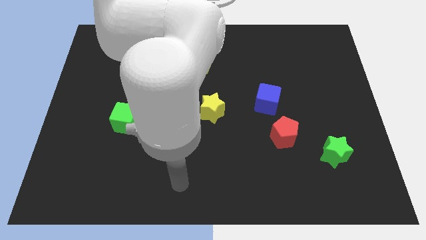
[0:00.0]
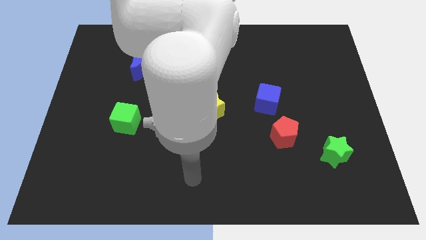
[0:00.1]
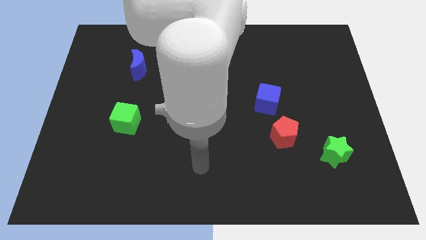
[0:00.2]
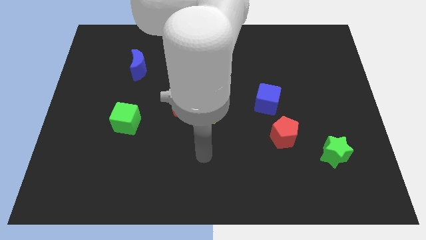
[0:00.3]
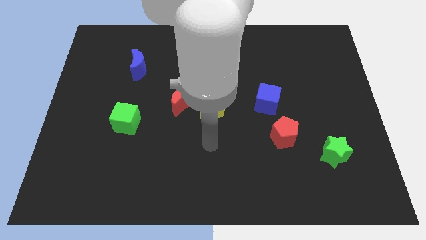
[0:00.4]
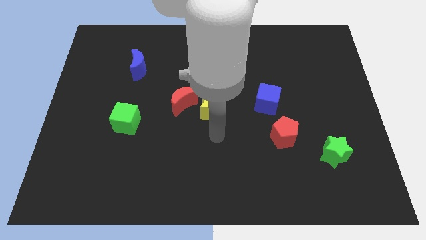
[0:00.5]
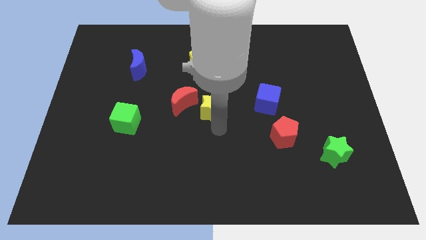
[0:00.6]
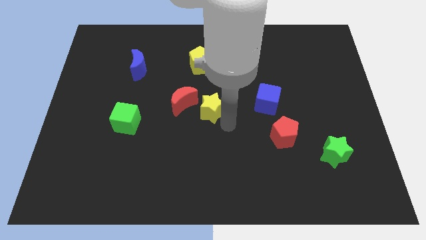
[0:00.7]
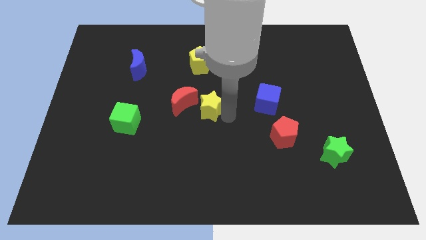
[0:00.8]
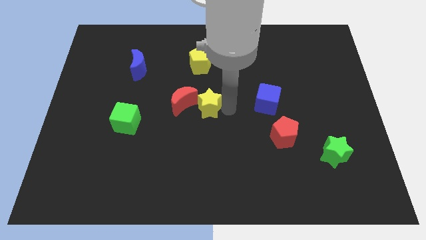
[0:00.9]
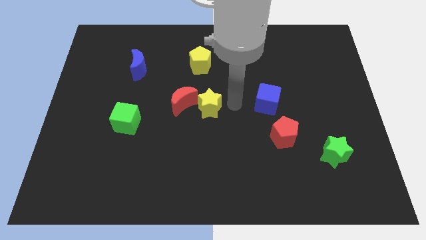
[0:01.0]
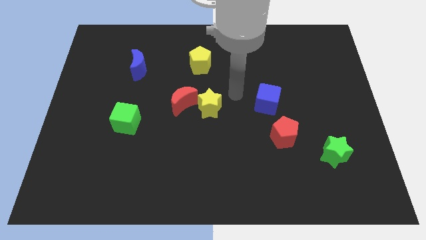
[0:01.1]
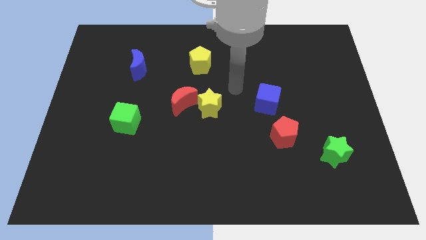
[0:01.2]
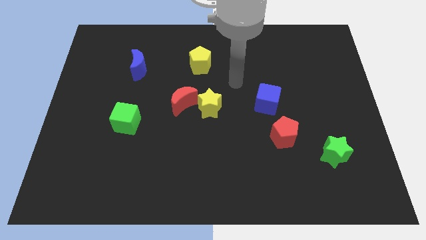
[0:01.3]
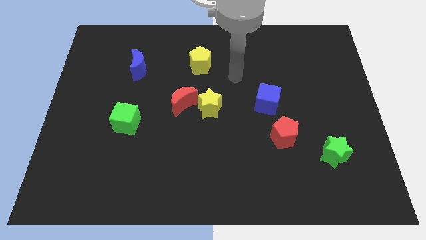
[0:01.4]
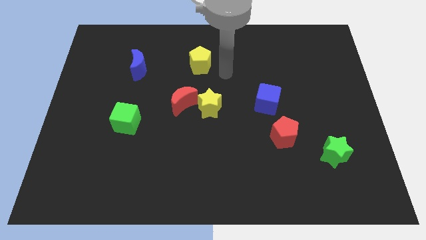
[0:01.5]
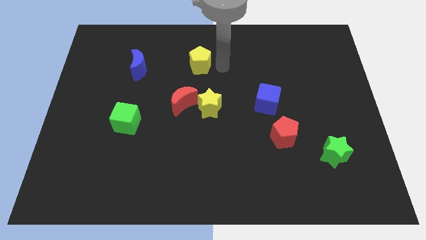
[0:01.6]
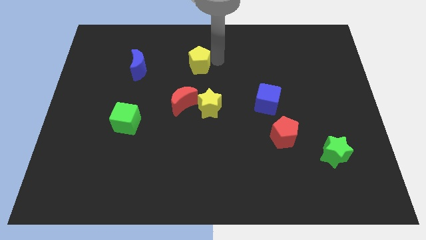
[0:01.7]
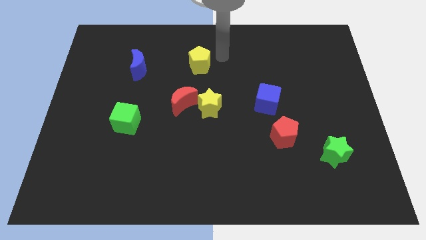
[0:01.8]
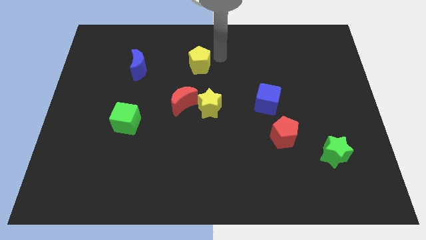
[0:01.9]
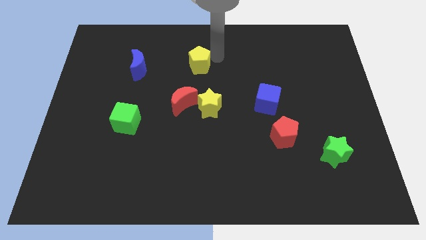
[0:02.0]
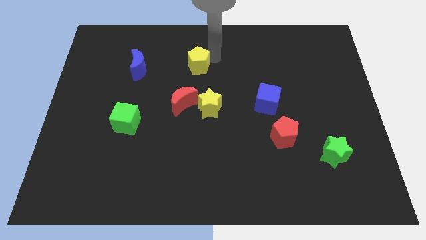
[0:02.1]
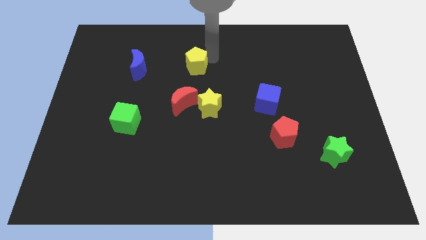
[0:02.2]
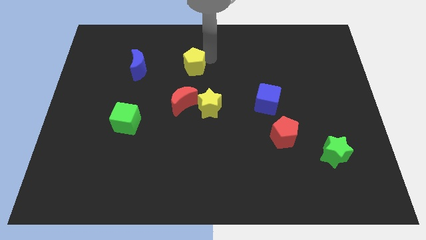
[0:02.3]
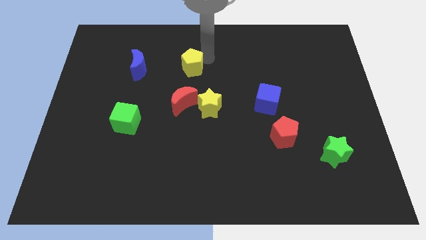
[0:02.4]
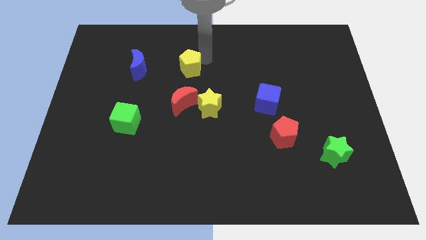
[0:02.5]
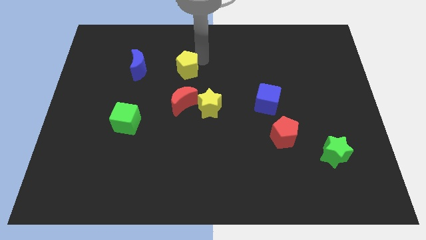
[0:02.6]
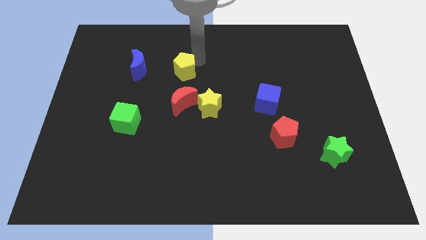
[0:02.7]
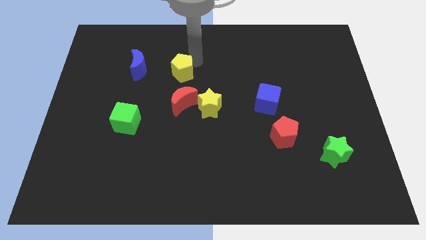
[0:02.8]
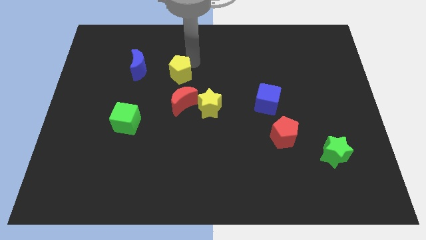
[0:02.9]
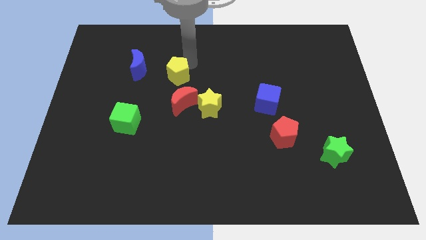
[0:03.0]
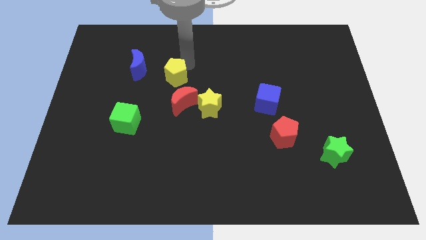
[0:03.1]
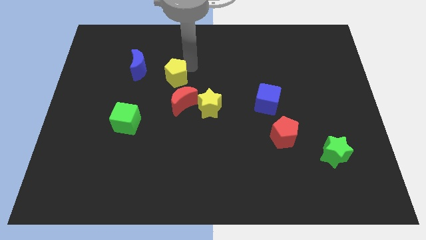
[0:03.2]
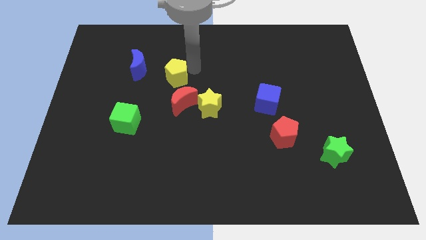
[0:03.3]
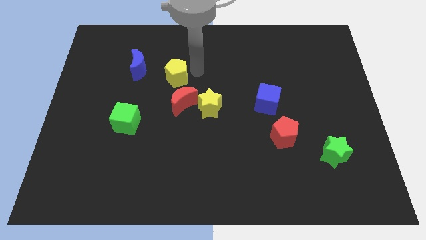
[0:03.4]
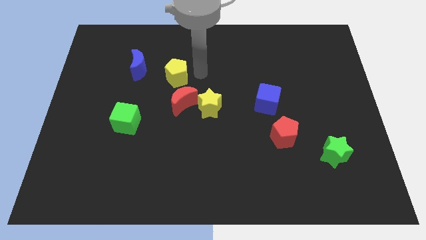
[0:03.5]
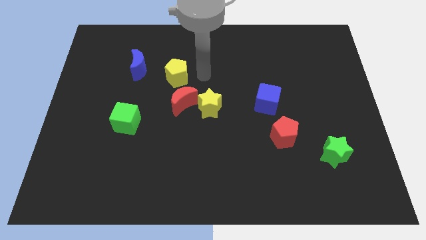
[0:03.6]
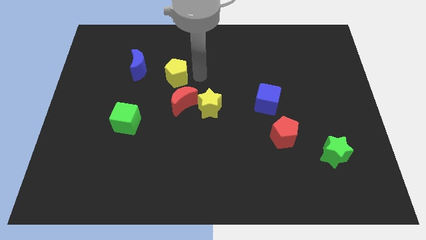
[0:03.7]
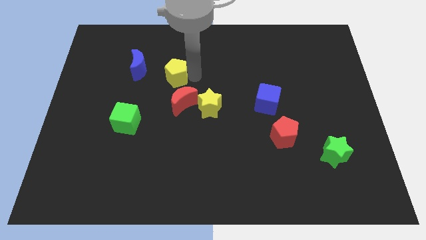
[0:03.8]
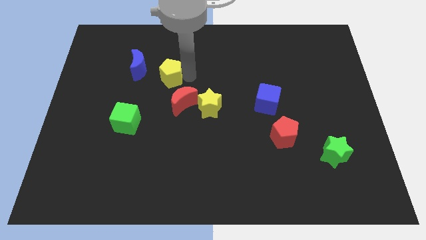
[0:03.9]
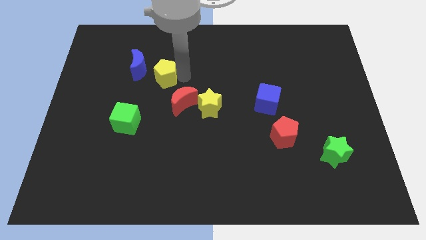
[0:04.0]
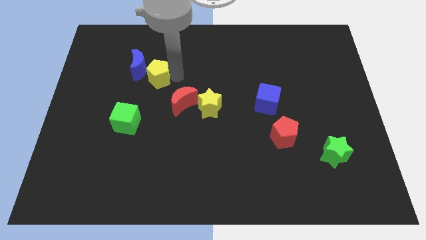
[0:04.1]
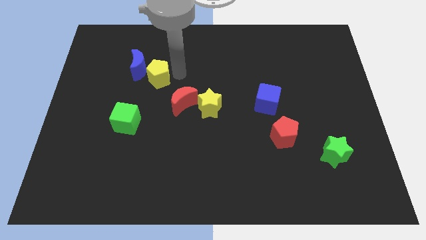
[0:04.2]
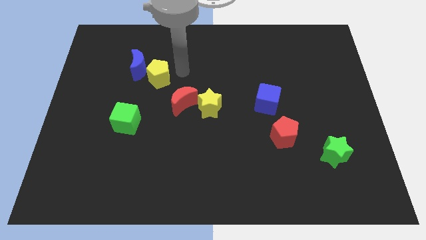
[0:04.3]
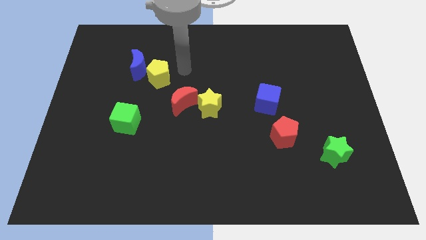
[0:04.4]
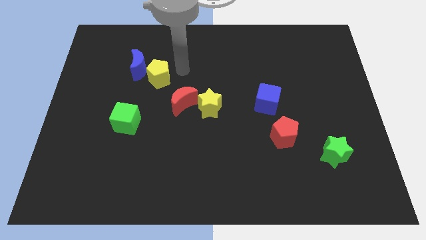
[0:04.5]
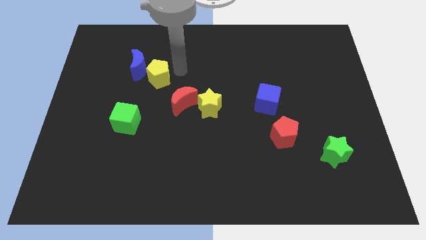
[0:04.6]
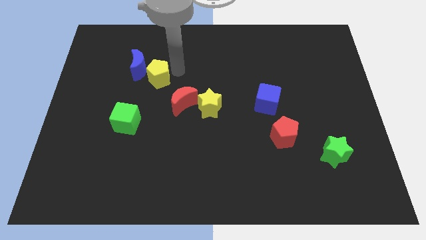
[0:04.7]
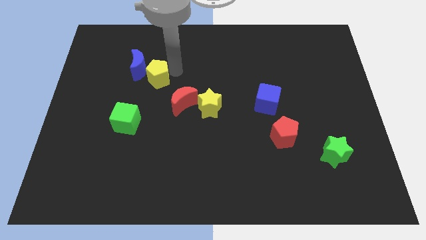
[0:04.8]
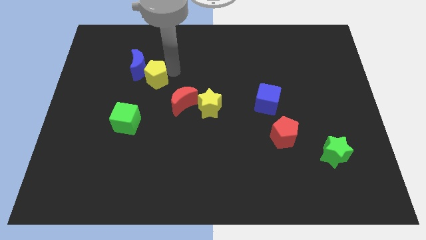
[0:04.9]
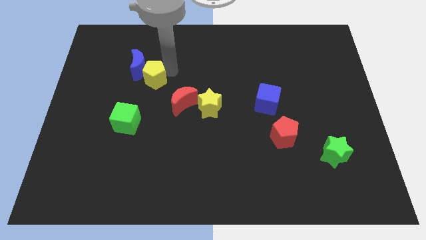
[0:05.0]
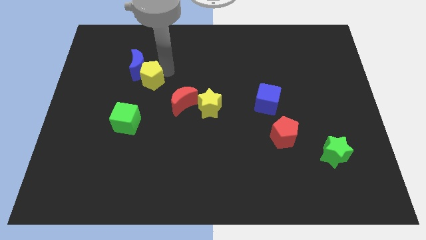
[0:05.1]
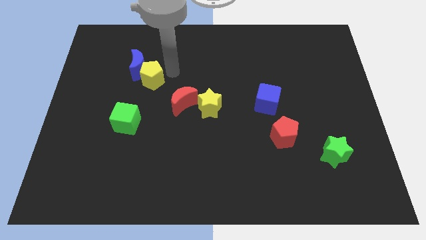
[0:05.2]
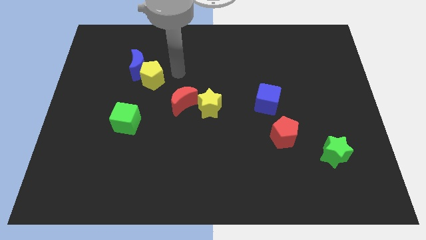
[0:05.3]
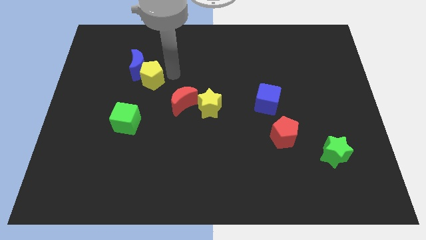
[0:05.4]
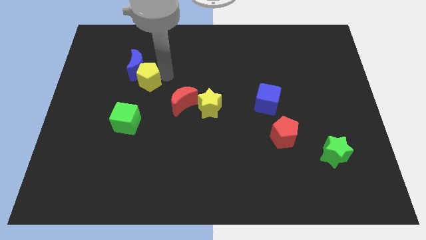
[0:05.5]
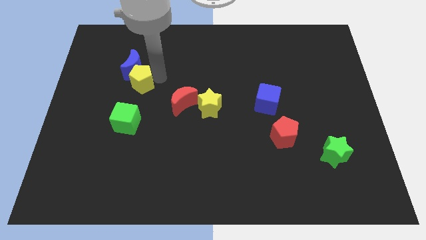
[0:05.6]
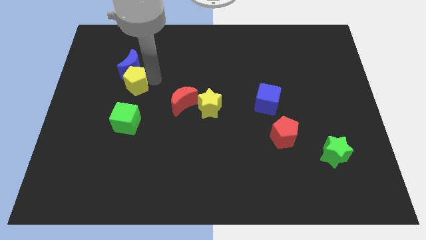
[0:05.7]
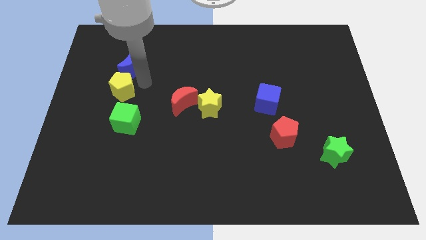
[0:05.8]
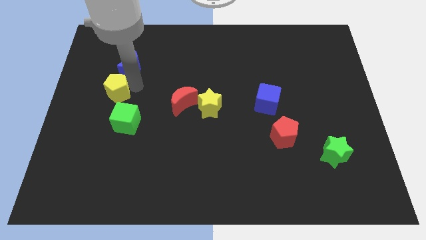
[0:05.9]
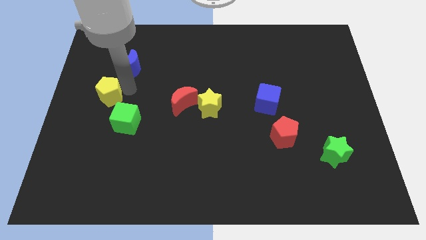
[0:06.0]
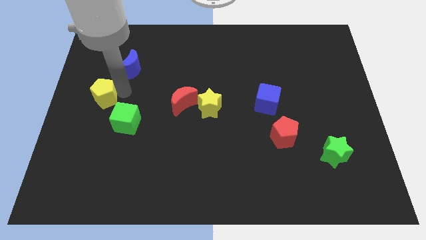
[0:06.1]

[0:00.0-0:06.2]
put the yellow pentagon to the left side
